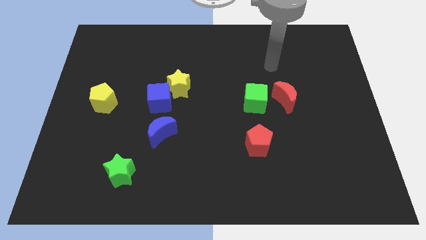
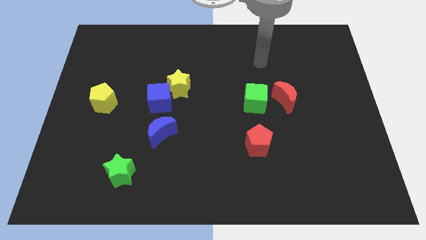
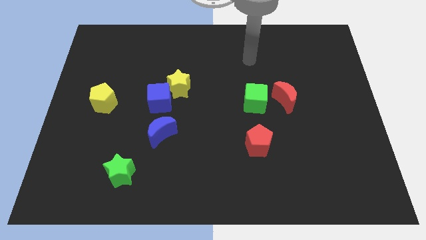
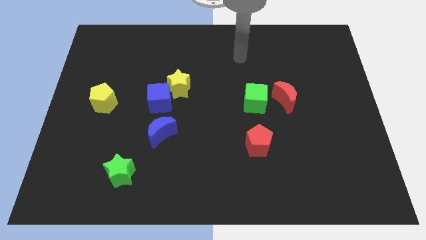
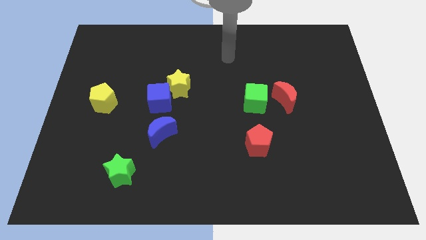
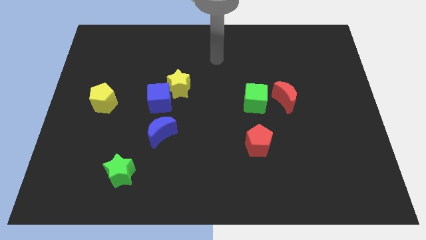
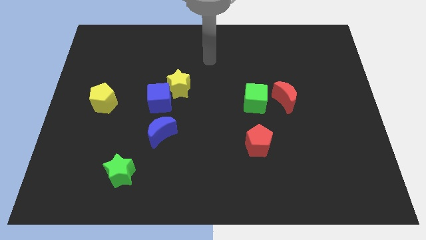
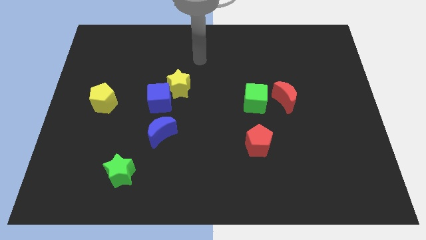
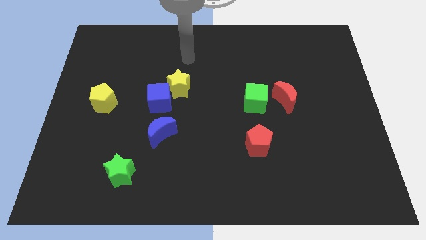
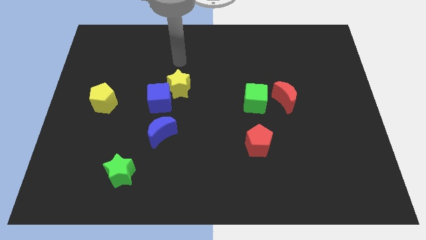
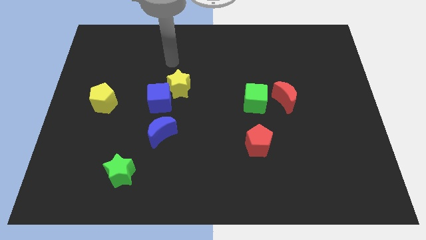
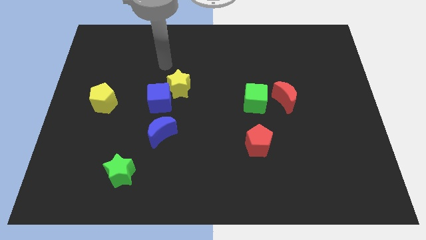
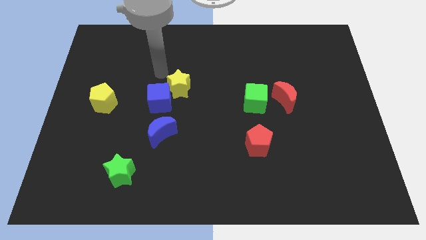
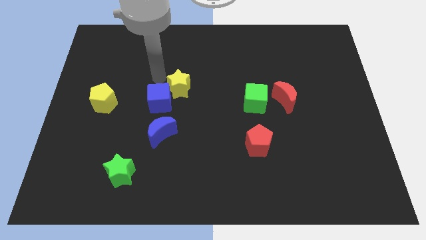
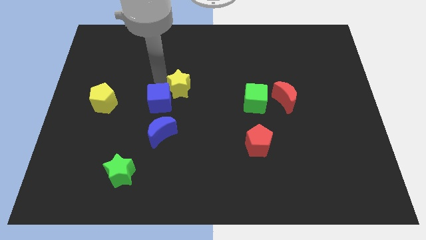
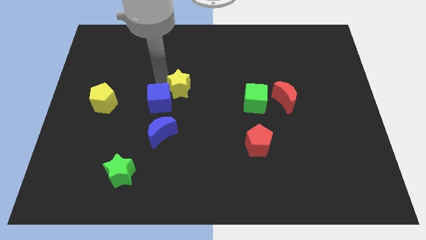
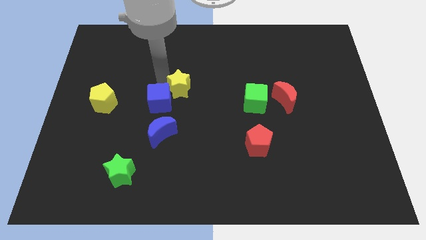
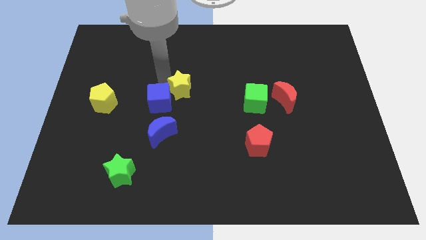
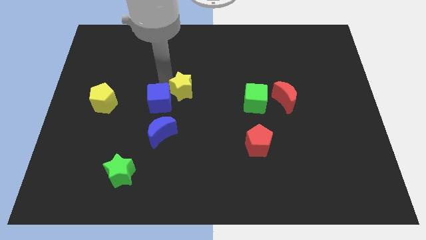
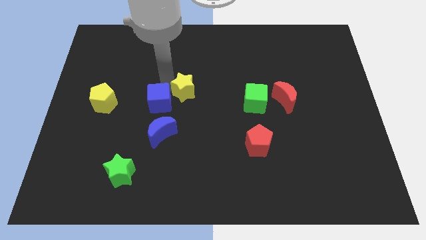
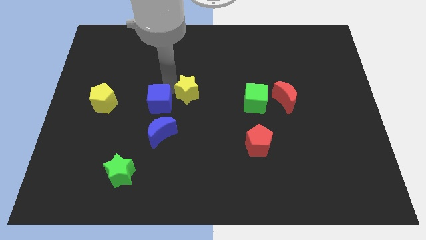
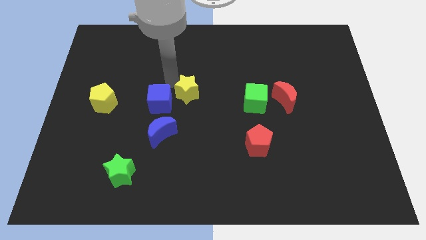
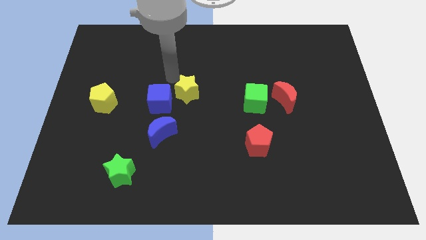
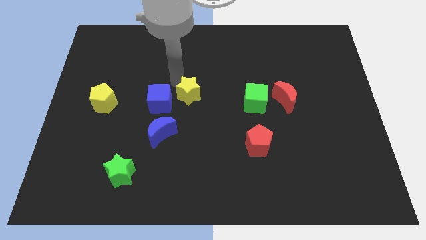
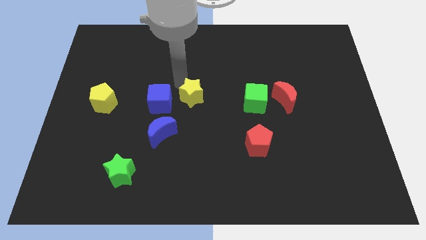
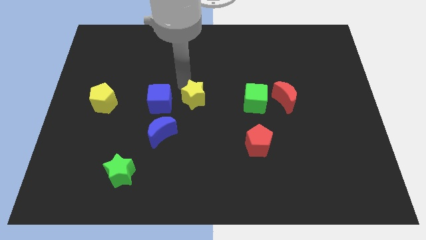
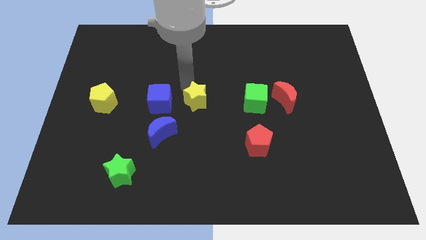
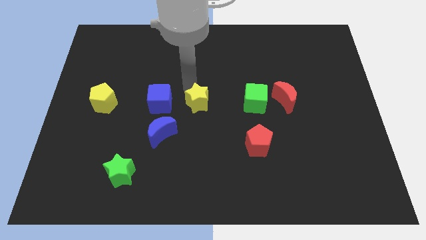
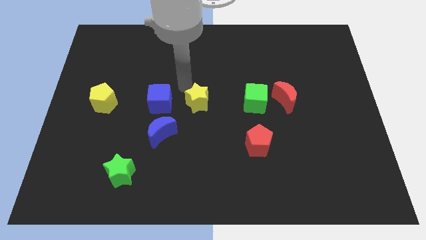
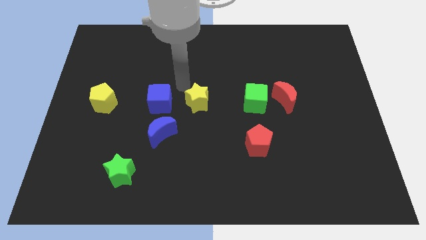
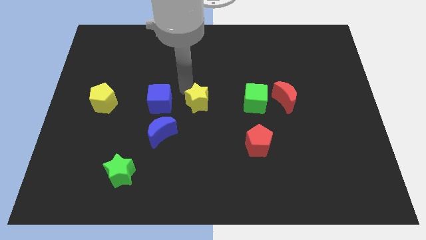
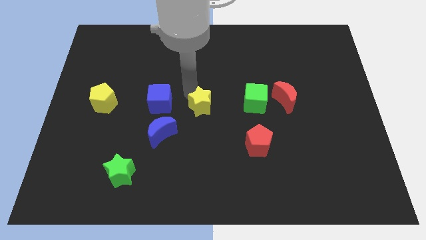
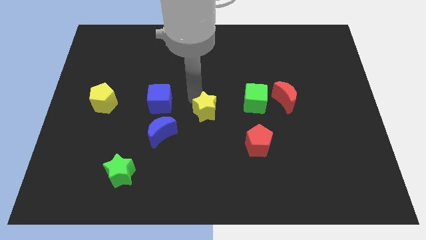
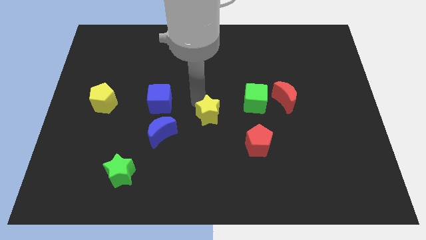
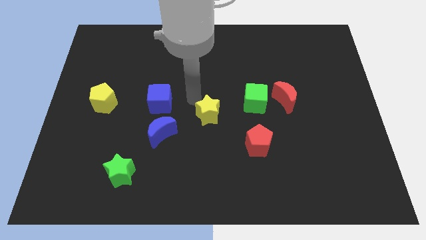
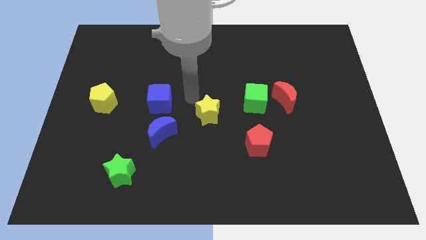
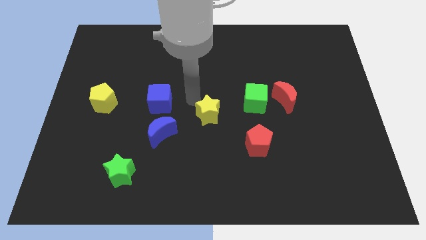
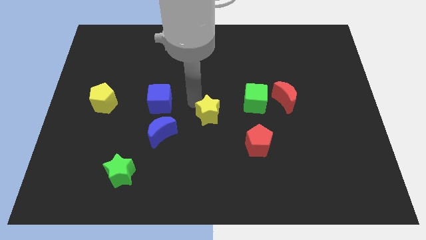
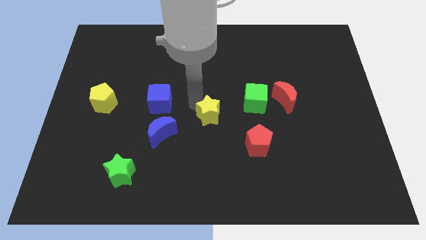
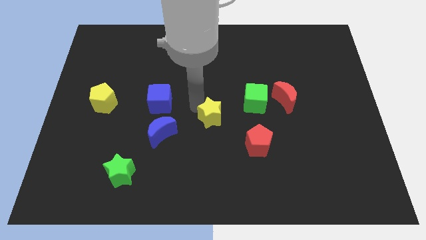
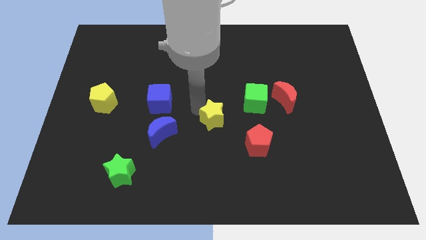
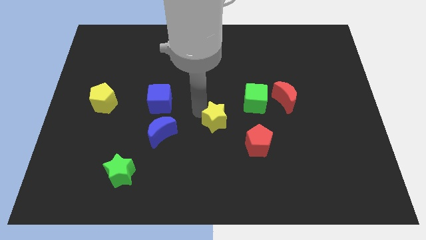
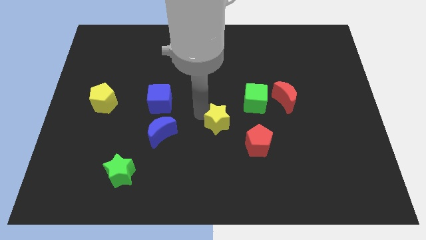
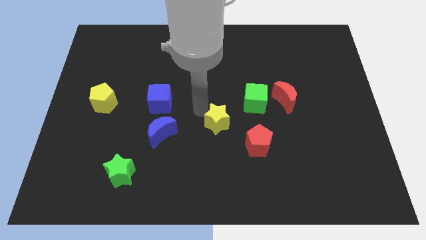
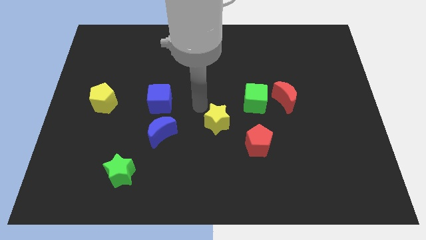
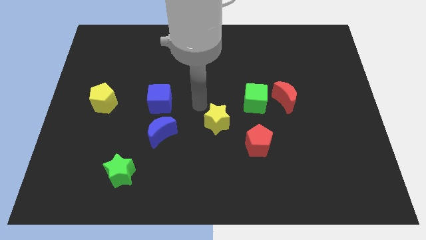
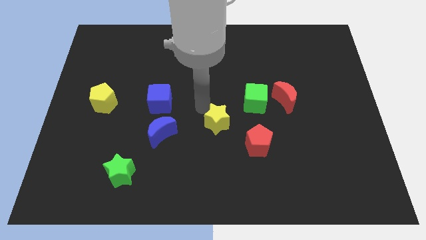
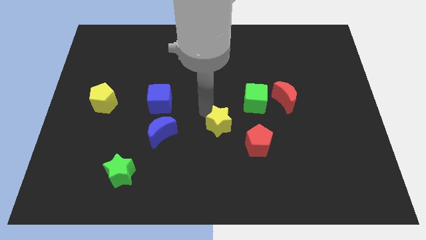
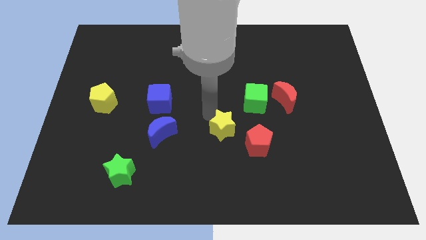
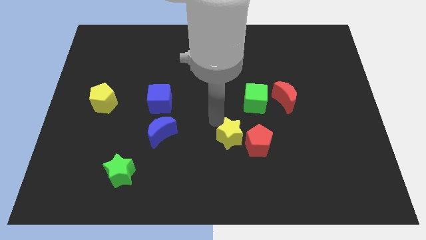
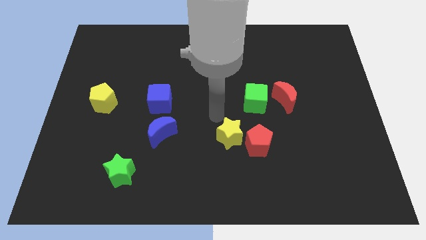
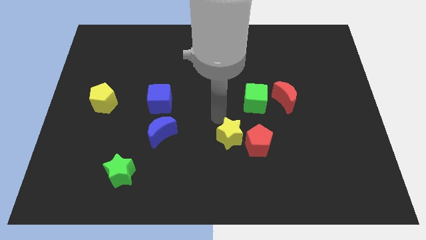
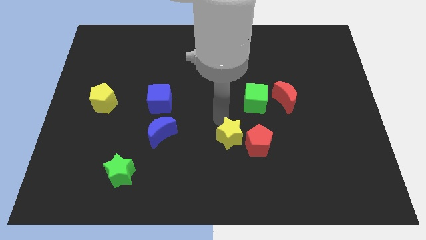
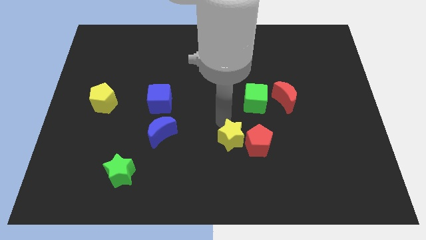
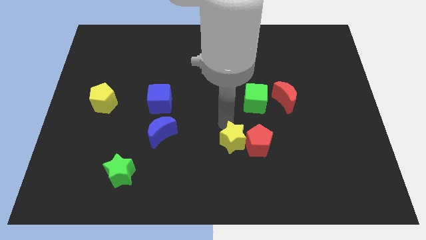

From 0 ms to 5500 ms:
push the yellow star diagonally down and right

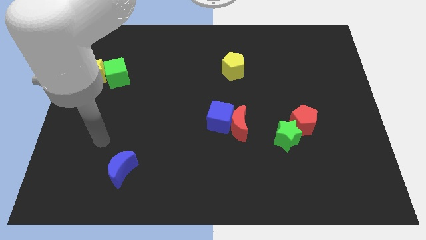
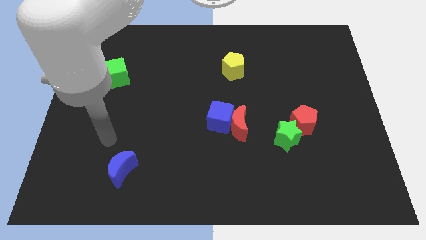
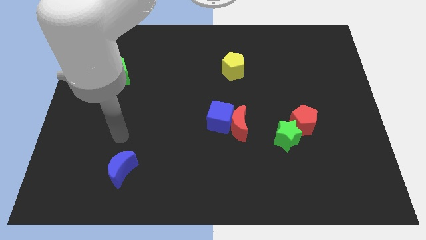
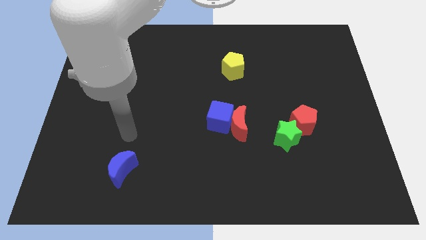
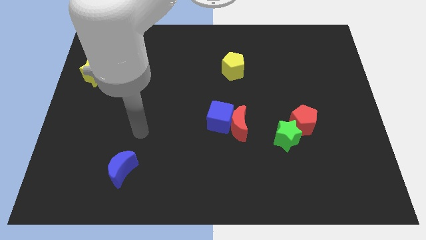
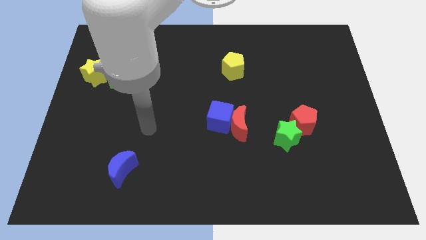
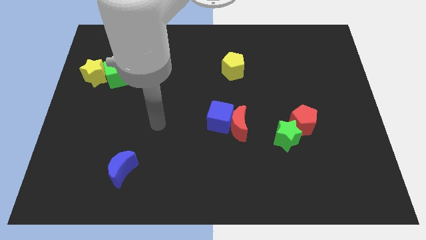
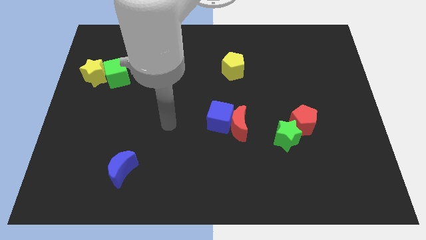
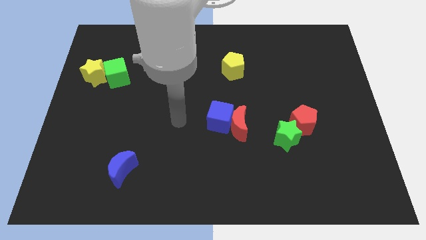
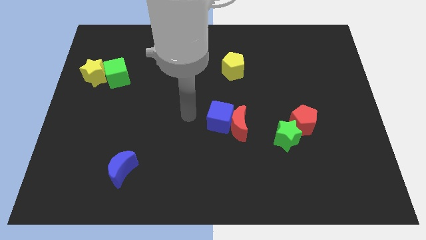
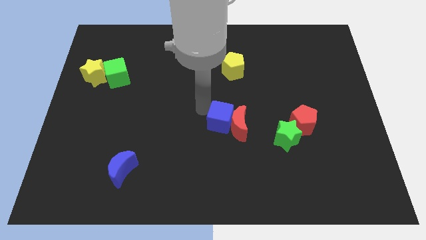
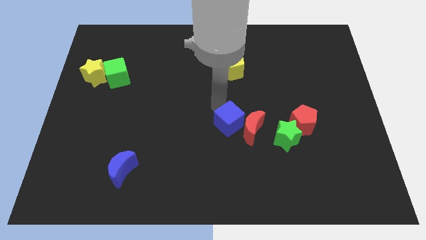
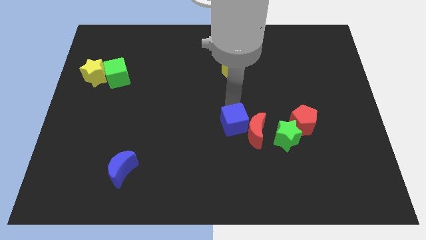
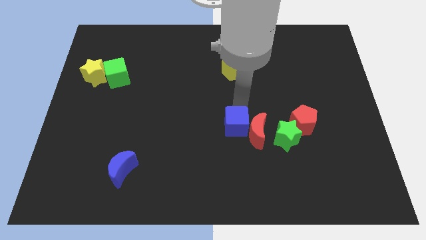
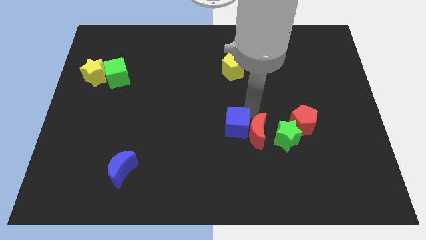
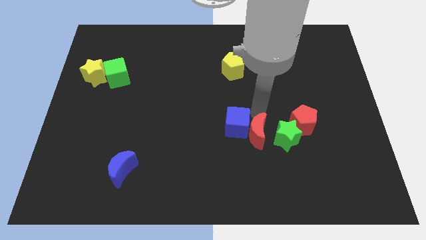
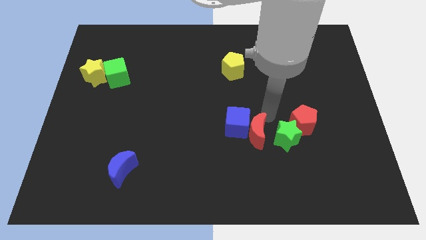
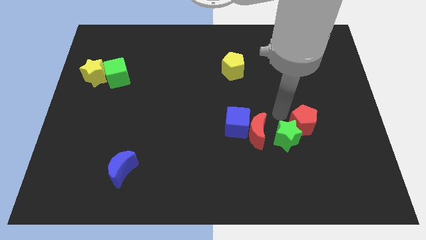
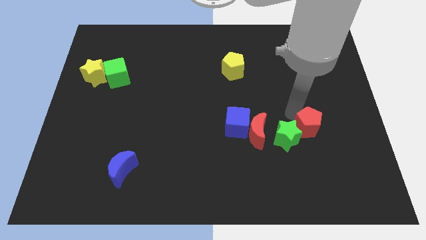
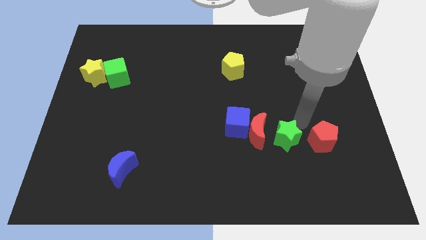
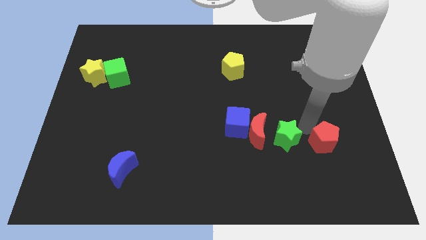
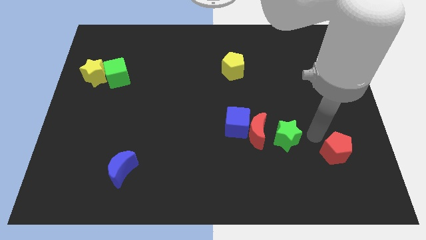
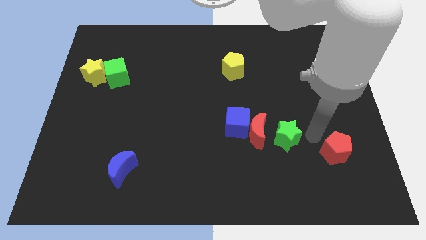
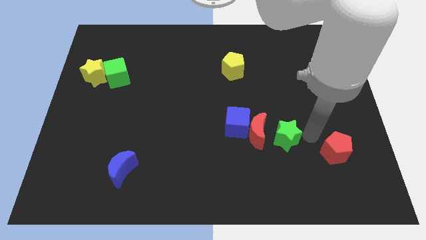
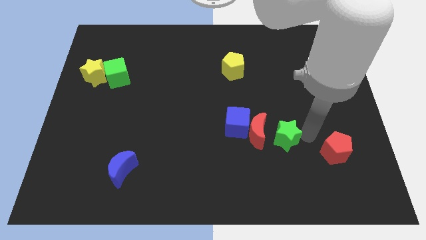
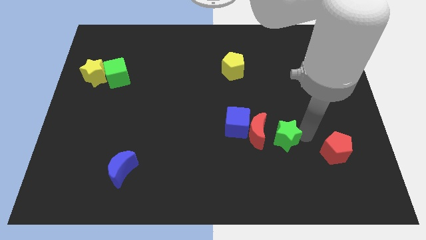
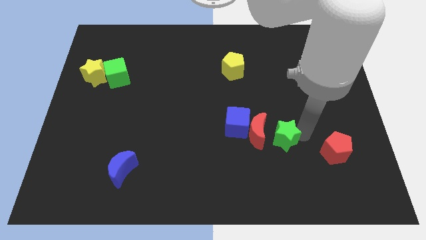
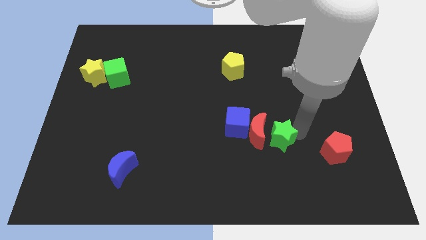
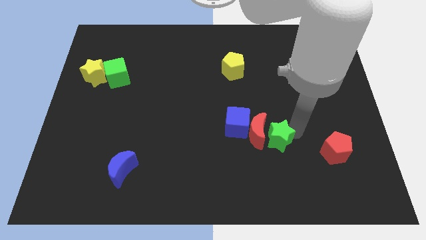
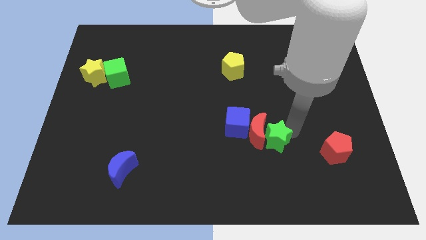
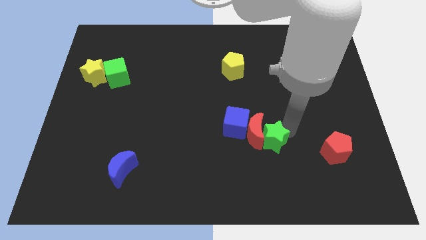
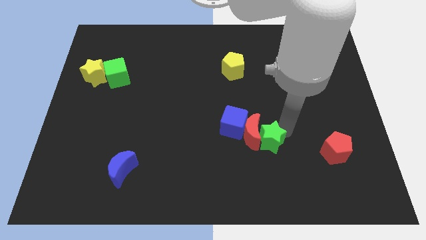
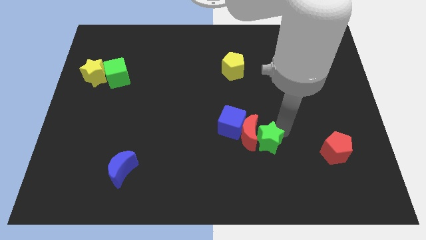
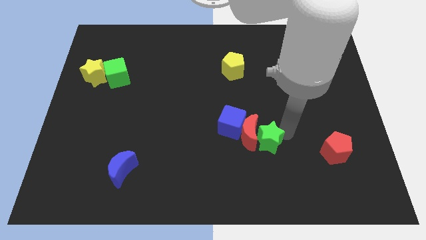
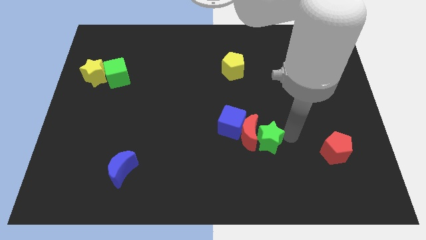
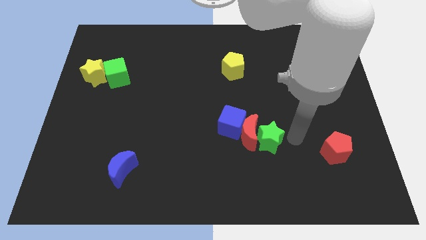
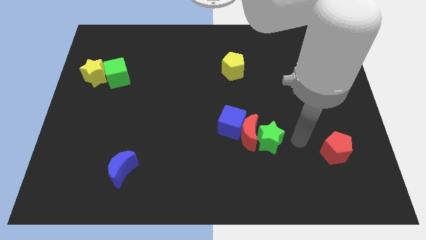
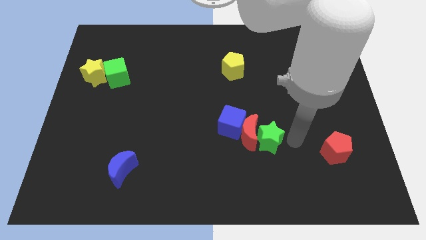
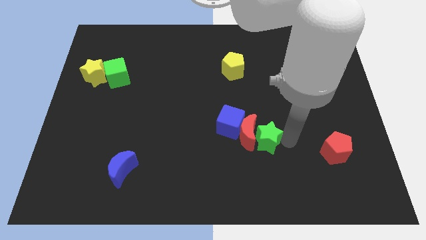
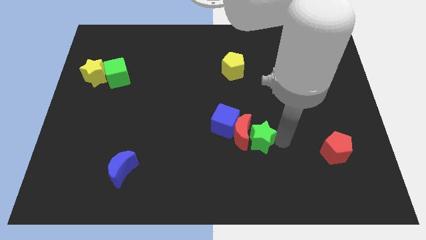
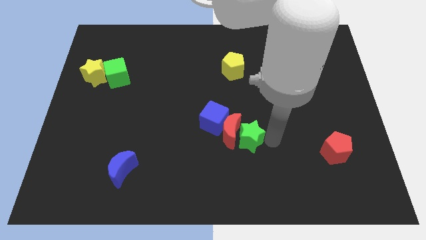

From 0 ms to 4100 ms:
slightly push the green star left
